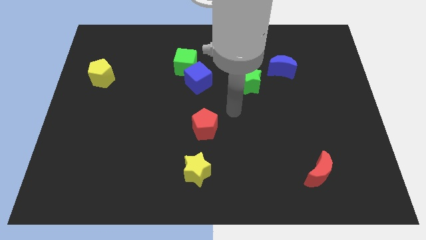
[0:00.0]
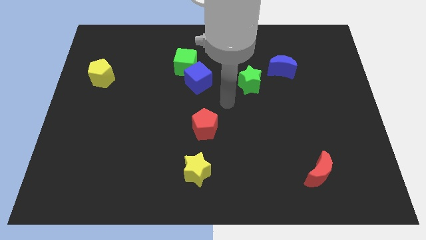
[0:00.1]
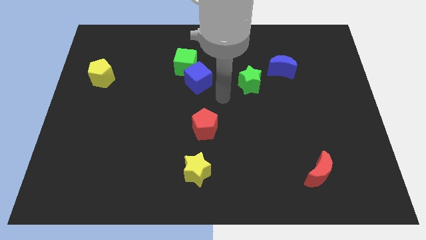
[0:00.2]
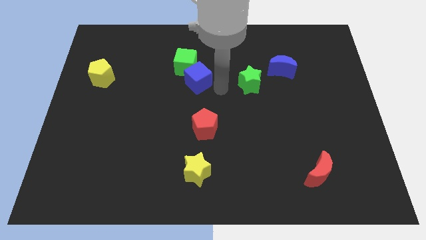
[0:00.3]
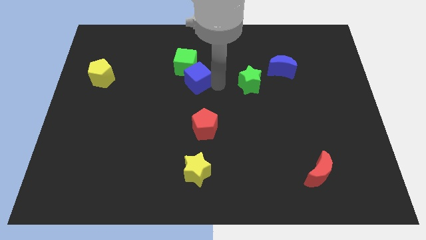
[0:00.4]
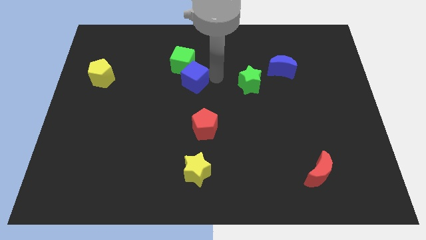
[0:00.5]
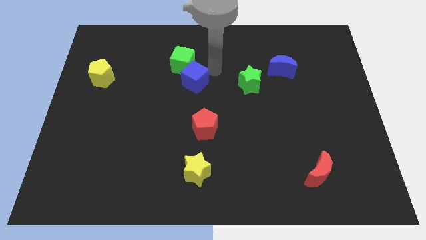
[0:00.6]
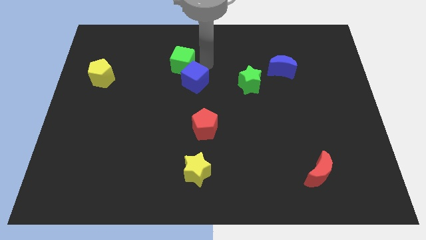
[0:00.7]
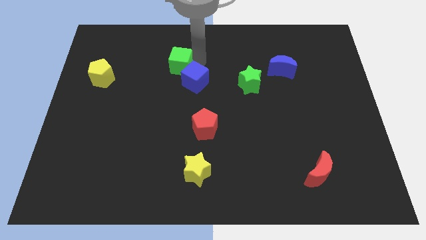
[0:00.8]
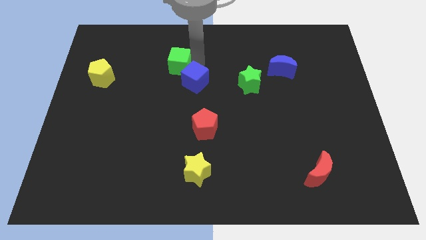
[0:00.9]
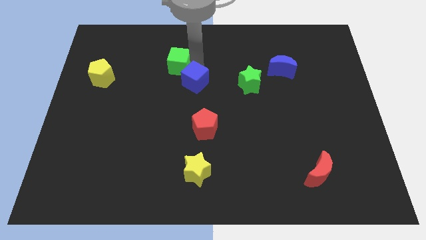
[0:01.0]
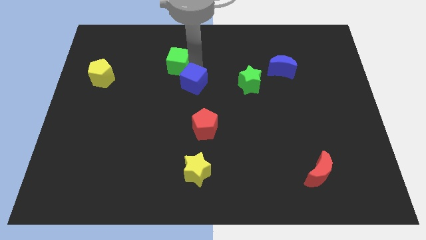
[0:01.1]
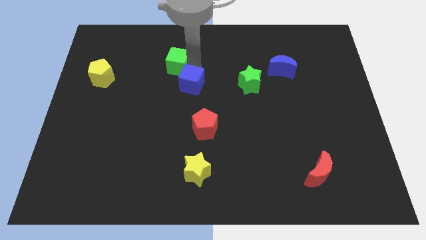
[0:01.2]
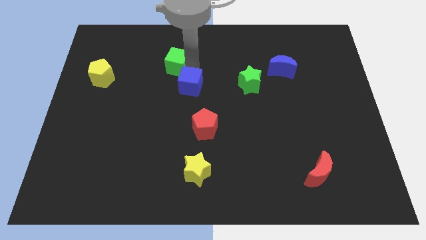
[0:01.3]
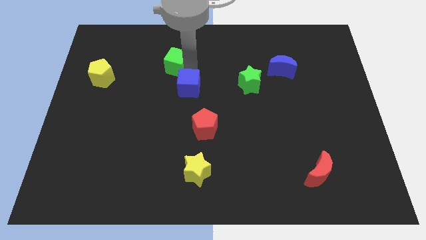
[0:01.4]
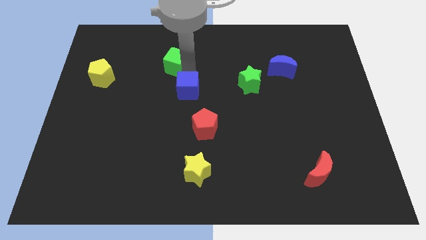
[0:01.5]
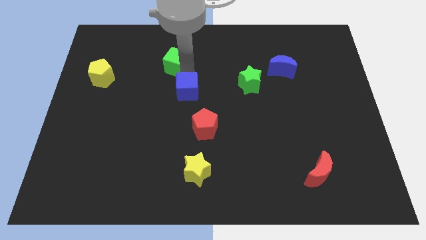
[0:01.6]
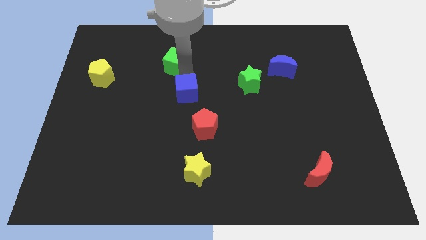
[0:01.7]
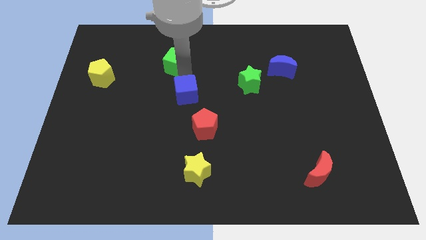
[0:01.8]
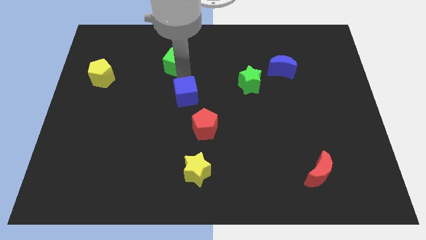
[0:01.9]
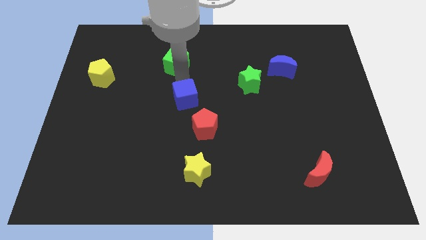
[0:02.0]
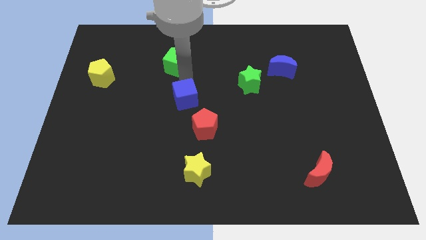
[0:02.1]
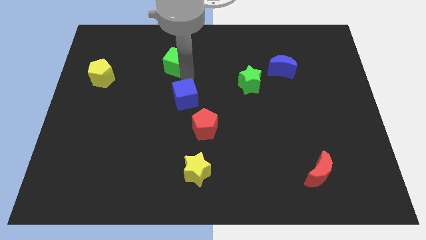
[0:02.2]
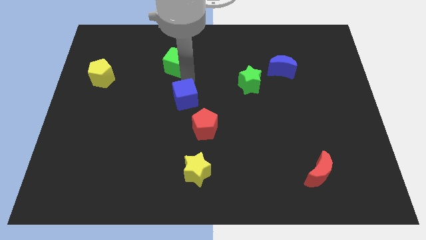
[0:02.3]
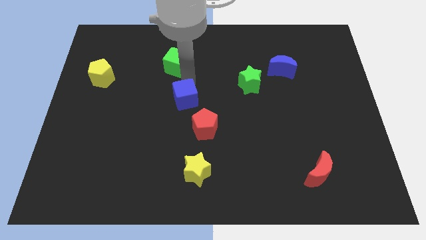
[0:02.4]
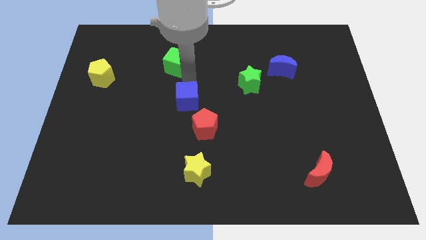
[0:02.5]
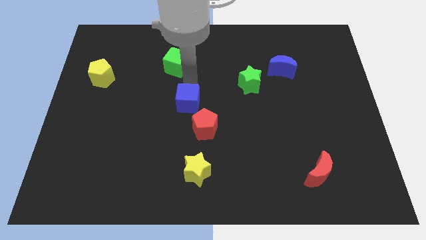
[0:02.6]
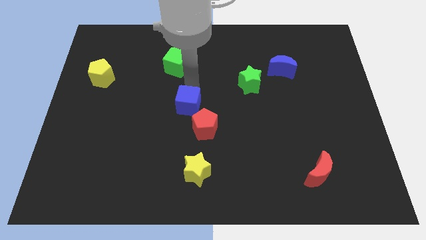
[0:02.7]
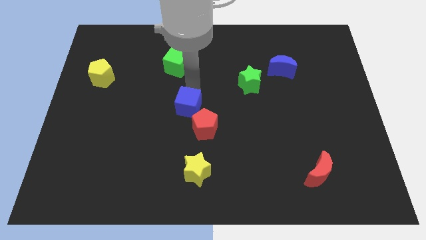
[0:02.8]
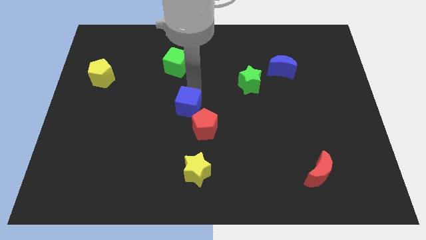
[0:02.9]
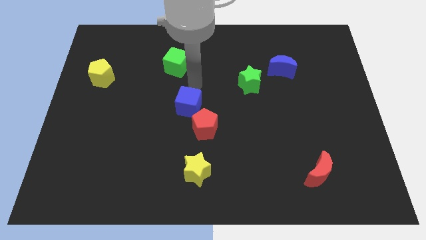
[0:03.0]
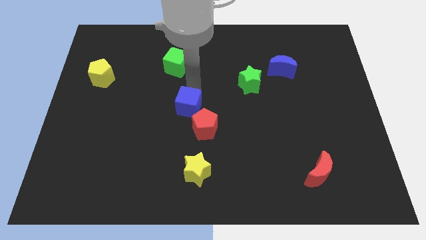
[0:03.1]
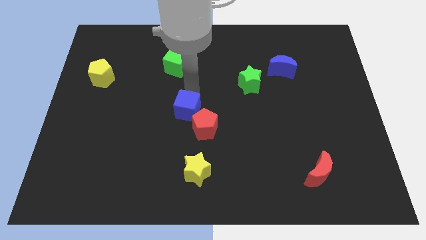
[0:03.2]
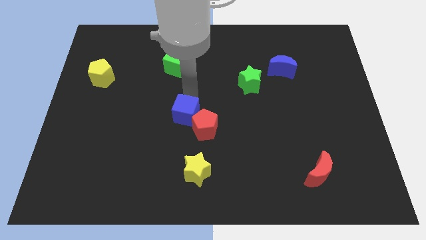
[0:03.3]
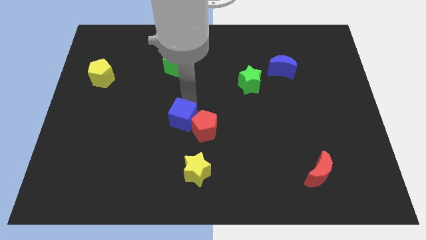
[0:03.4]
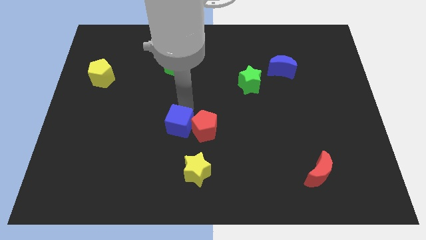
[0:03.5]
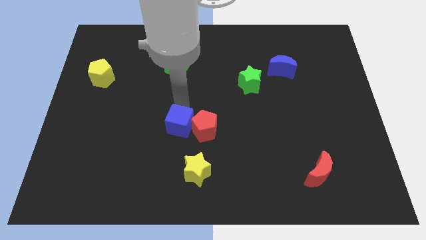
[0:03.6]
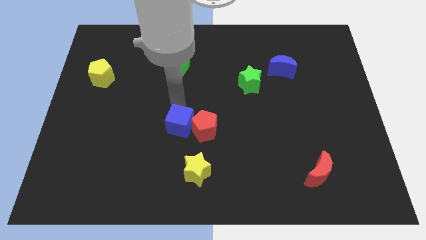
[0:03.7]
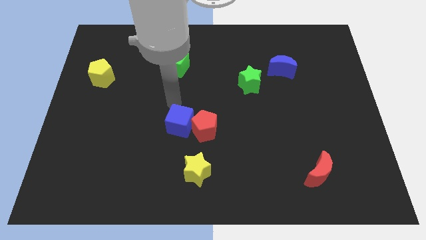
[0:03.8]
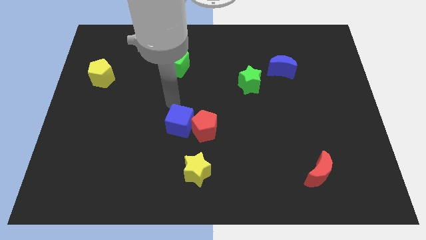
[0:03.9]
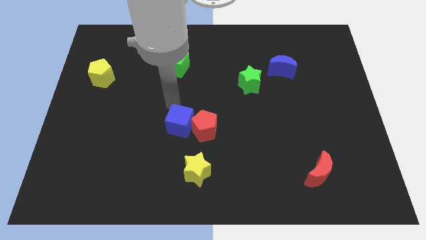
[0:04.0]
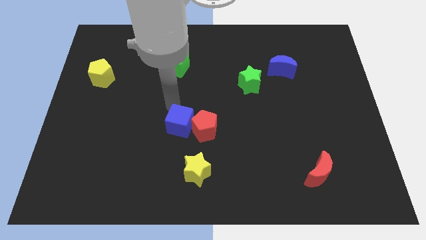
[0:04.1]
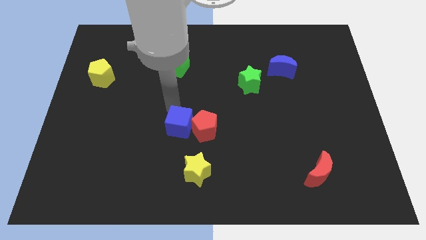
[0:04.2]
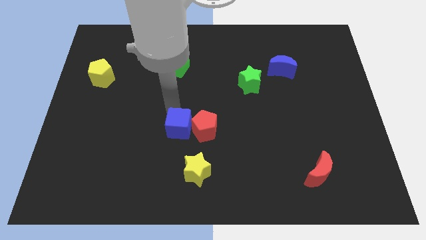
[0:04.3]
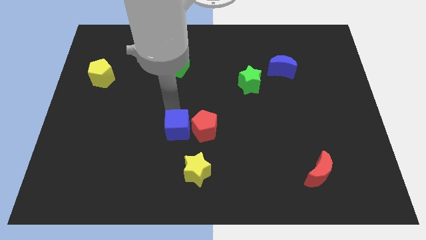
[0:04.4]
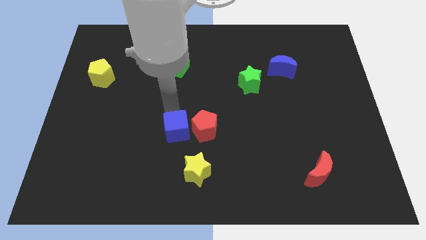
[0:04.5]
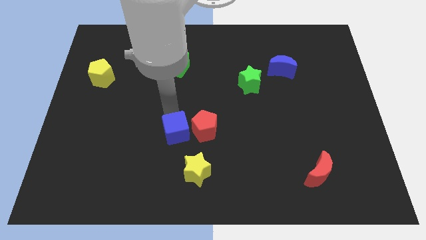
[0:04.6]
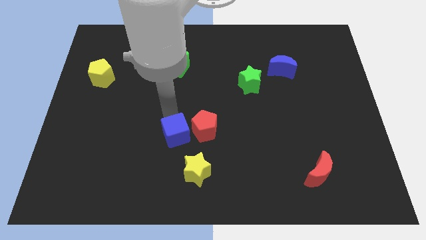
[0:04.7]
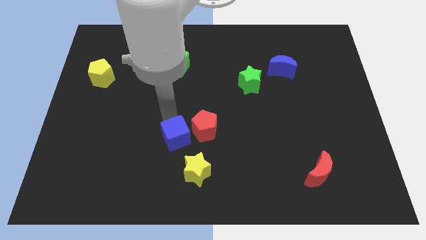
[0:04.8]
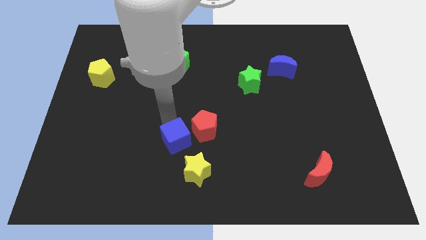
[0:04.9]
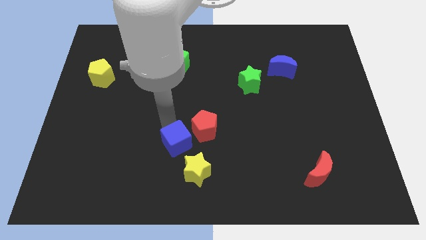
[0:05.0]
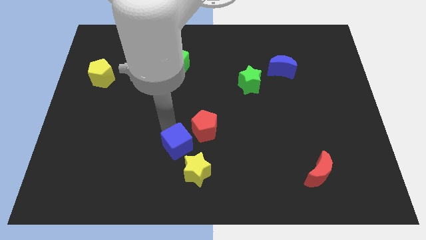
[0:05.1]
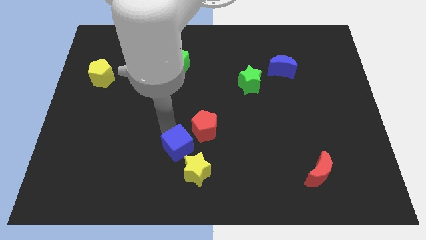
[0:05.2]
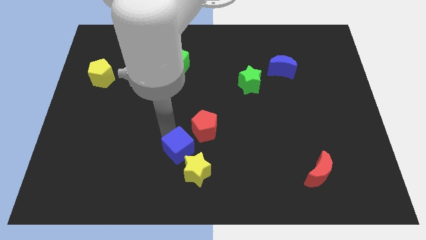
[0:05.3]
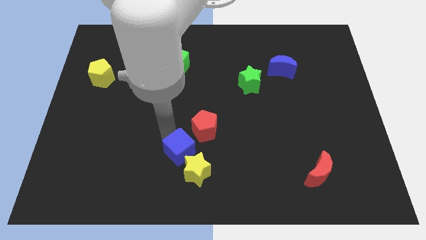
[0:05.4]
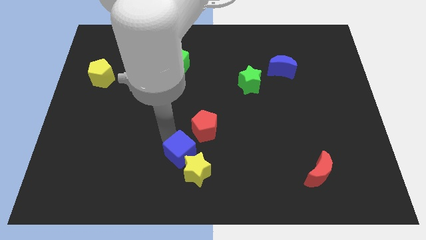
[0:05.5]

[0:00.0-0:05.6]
slide the blue cube next to the yellow star

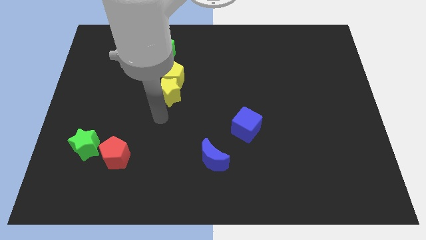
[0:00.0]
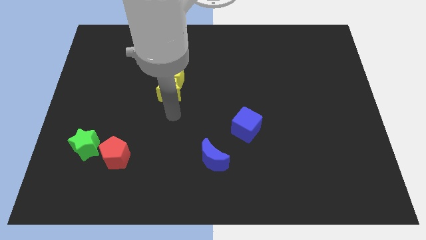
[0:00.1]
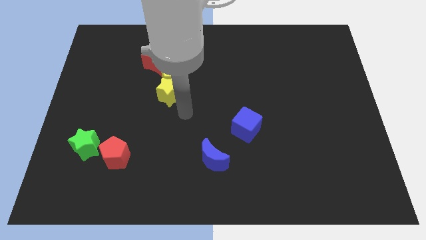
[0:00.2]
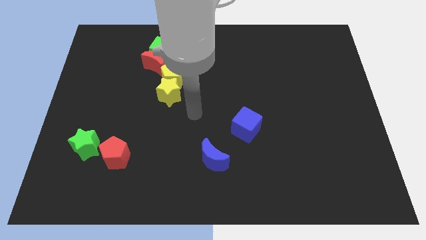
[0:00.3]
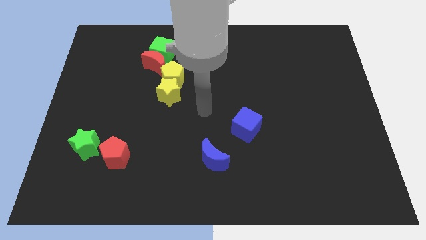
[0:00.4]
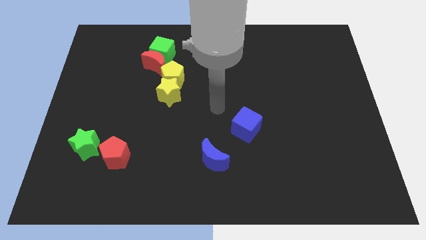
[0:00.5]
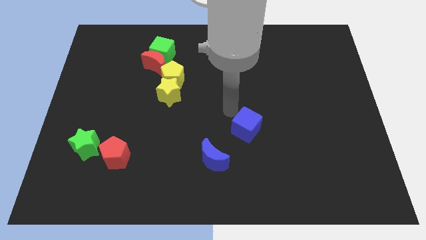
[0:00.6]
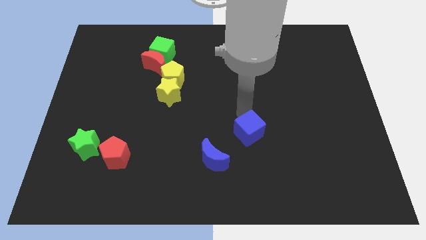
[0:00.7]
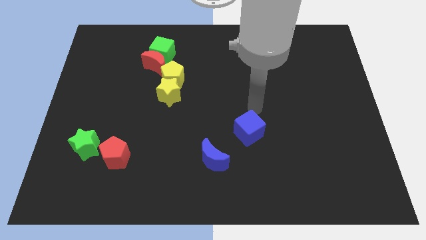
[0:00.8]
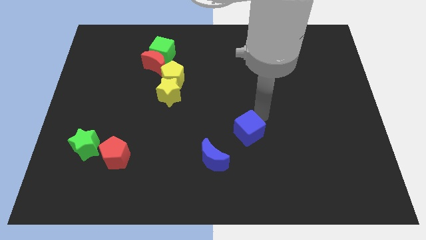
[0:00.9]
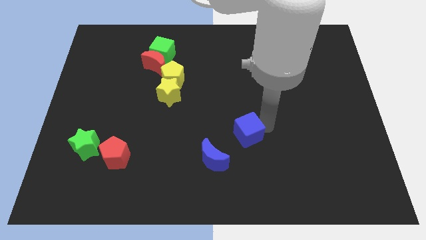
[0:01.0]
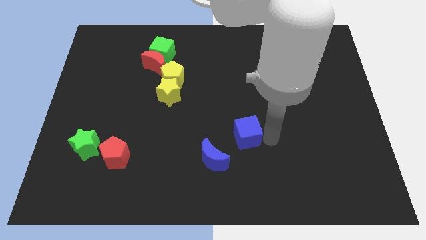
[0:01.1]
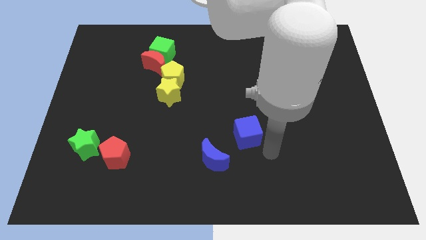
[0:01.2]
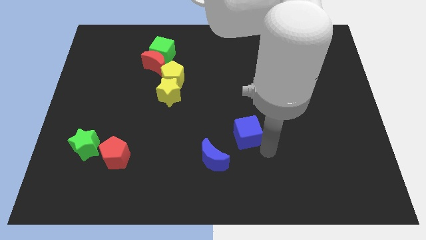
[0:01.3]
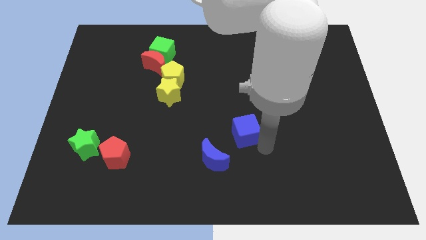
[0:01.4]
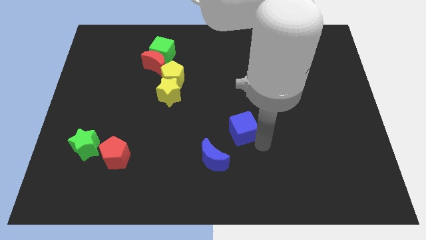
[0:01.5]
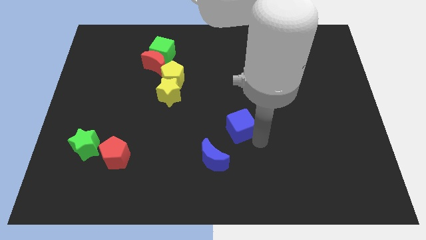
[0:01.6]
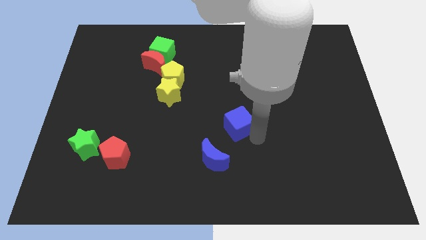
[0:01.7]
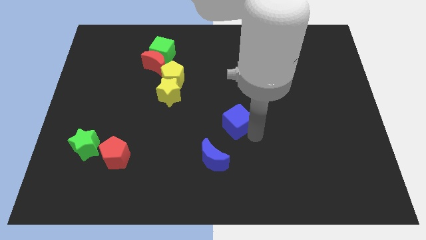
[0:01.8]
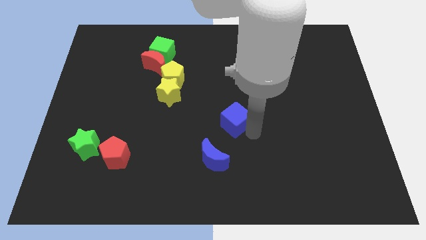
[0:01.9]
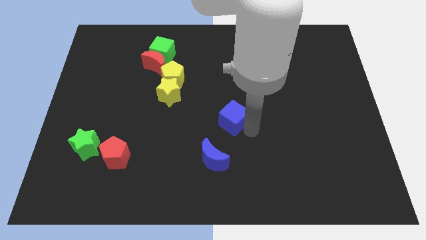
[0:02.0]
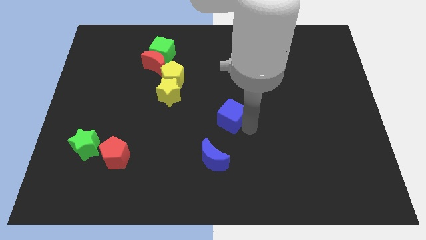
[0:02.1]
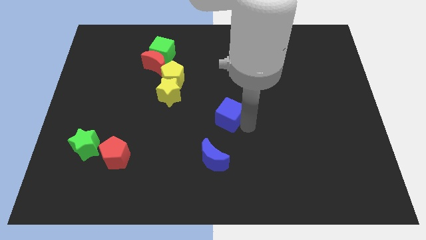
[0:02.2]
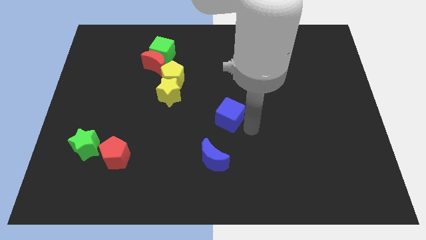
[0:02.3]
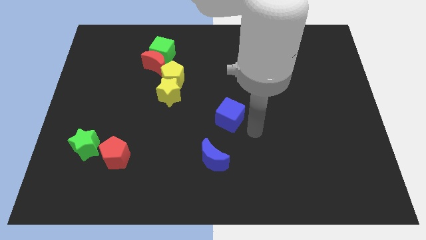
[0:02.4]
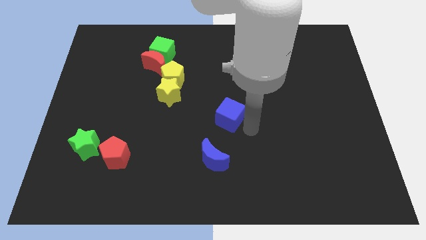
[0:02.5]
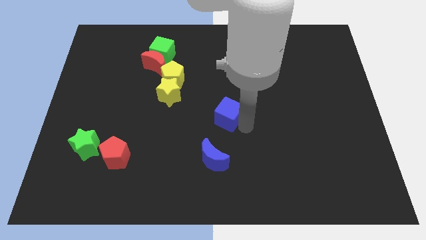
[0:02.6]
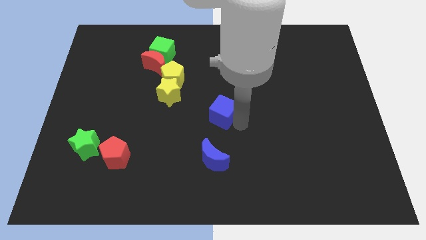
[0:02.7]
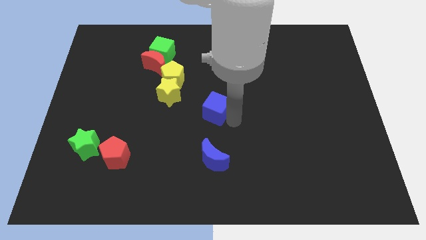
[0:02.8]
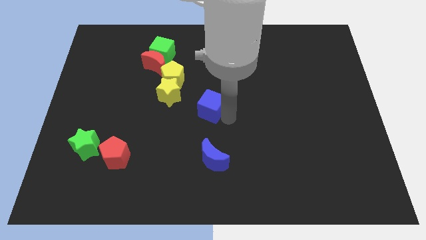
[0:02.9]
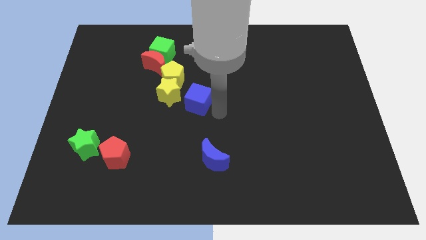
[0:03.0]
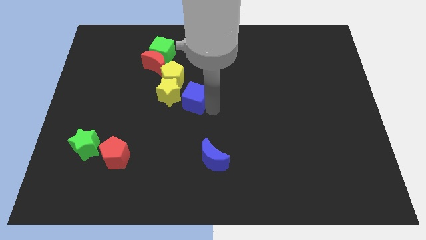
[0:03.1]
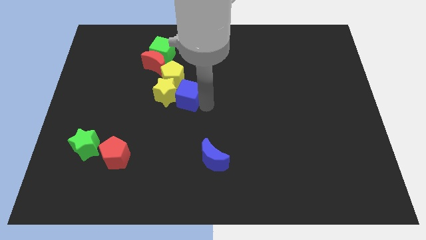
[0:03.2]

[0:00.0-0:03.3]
move the blue cube towards the yellow star
